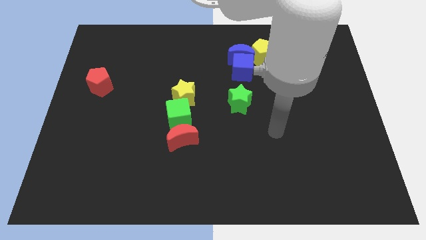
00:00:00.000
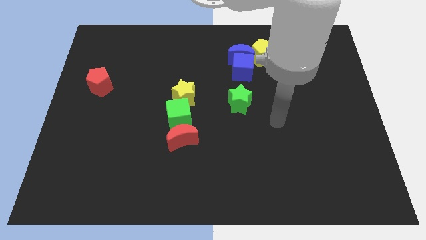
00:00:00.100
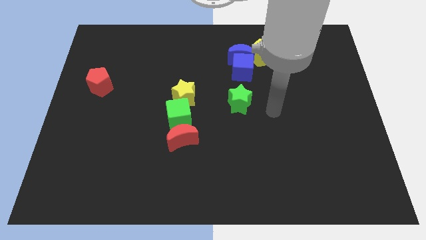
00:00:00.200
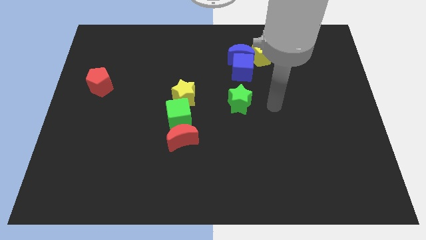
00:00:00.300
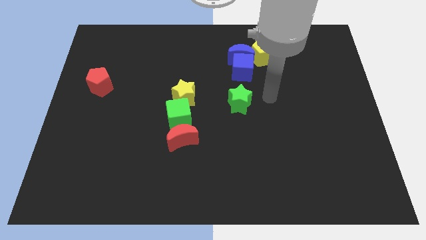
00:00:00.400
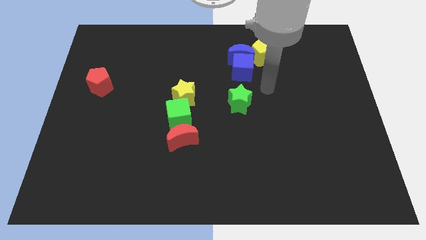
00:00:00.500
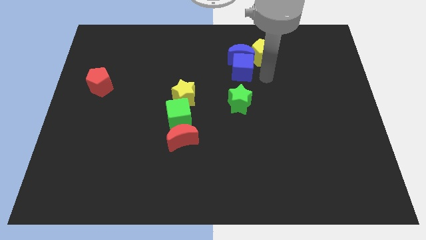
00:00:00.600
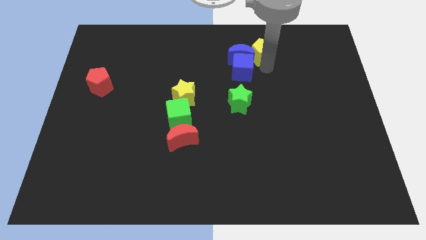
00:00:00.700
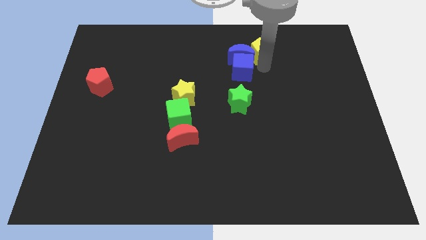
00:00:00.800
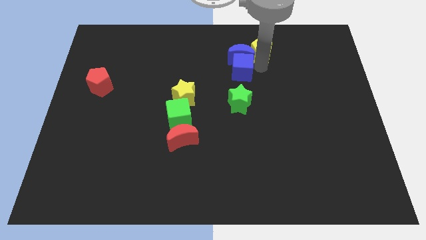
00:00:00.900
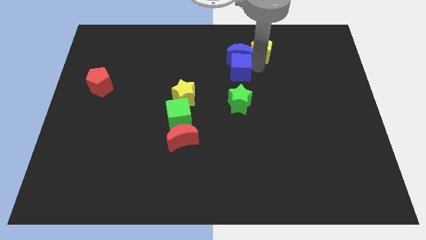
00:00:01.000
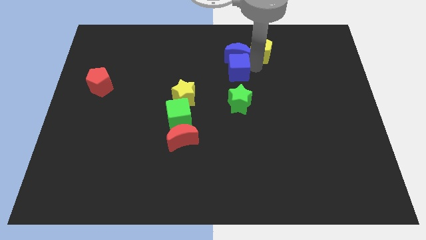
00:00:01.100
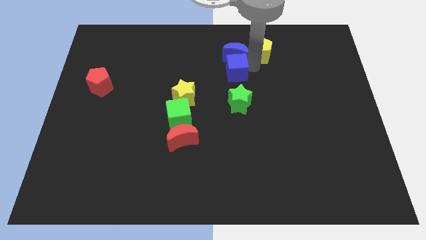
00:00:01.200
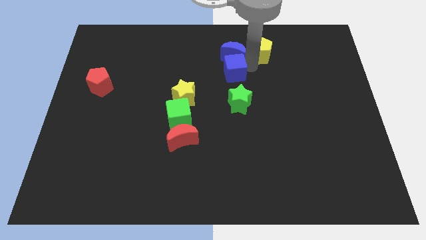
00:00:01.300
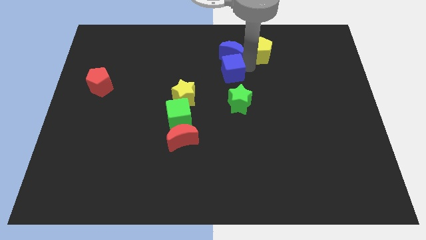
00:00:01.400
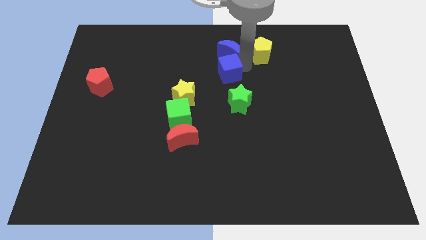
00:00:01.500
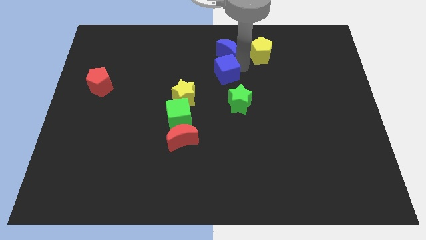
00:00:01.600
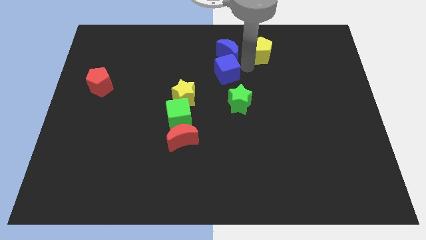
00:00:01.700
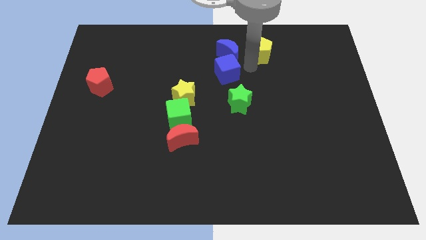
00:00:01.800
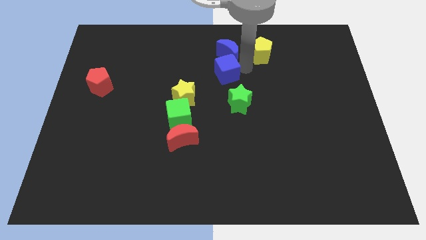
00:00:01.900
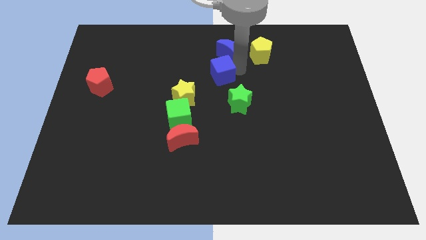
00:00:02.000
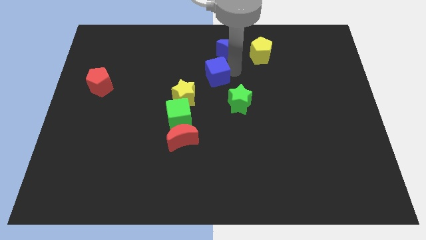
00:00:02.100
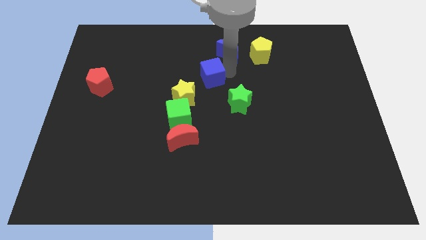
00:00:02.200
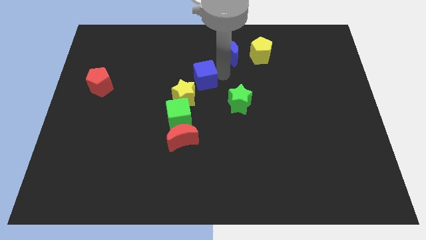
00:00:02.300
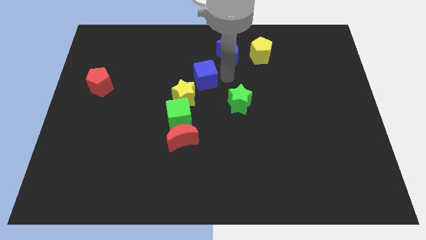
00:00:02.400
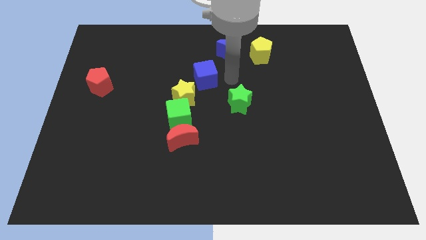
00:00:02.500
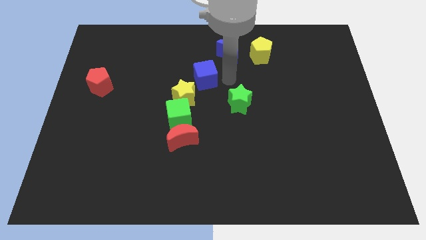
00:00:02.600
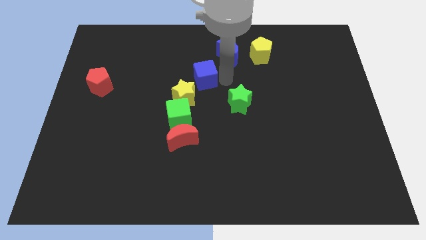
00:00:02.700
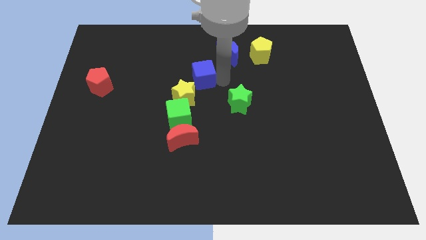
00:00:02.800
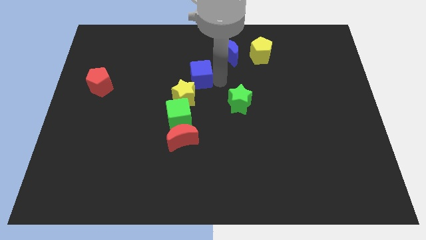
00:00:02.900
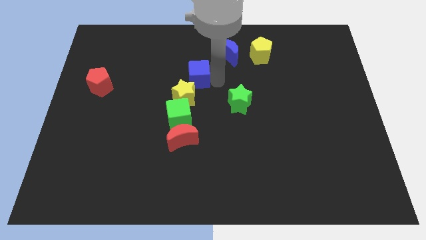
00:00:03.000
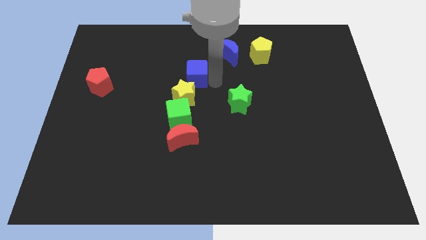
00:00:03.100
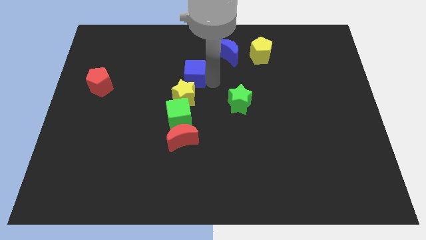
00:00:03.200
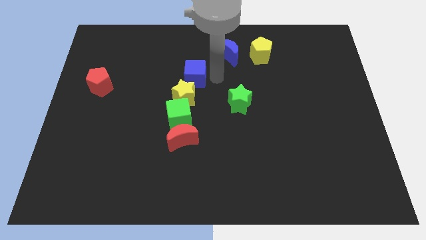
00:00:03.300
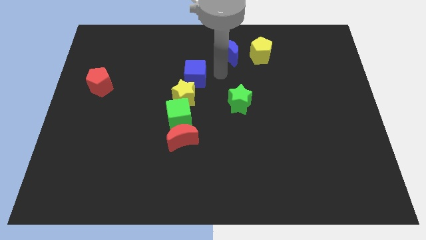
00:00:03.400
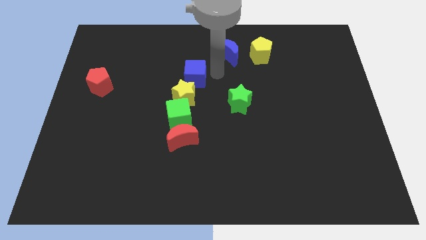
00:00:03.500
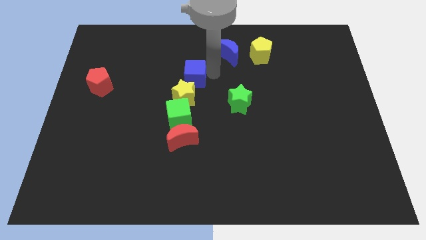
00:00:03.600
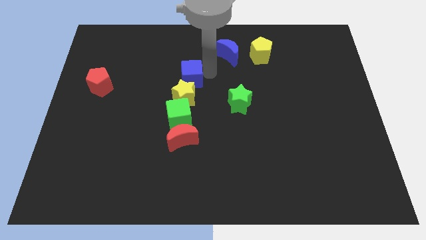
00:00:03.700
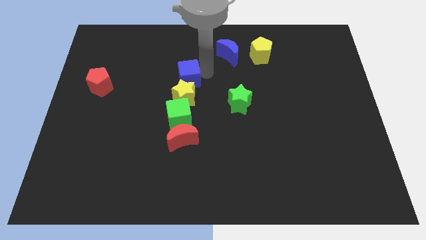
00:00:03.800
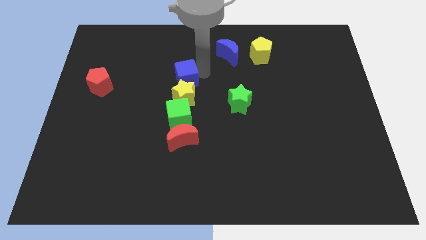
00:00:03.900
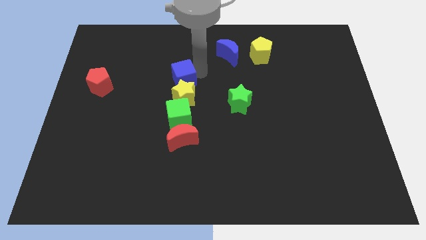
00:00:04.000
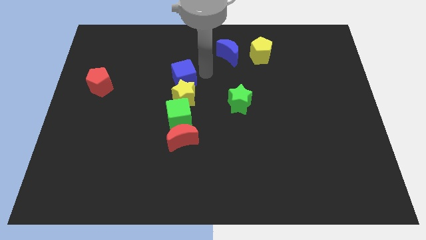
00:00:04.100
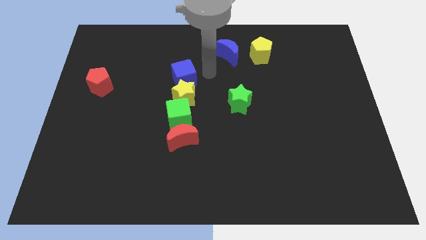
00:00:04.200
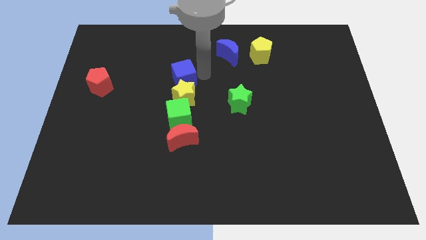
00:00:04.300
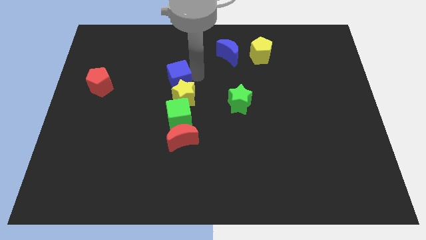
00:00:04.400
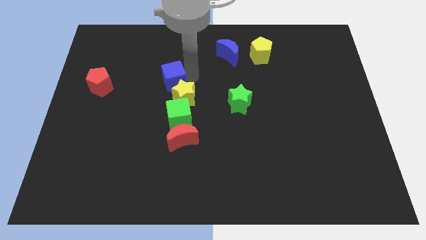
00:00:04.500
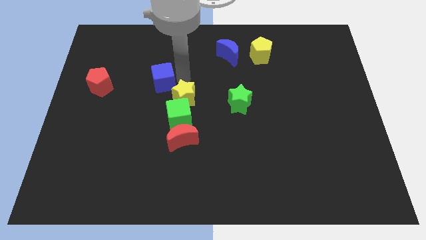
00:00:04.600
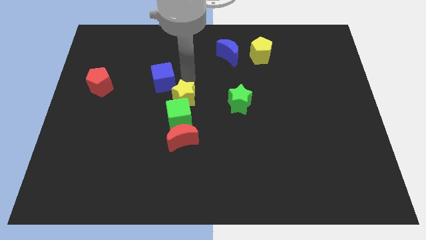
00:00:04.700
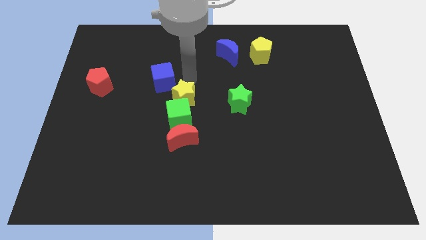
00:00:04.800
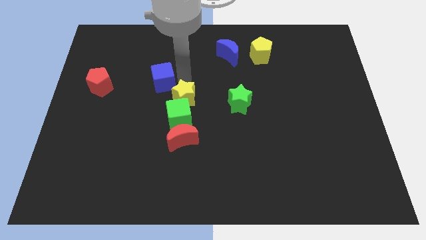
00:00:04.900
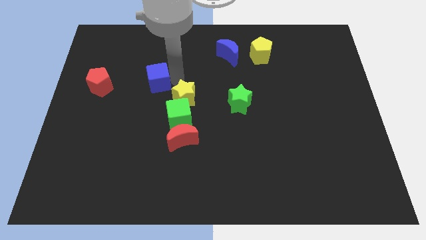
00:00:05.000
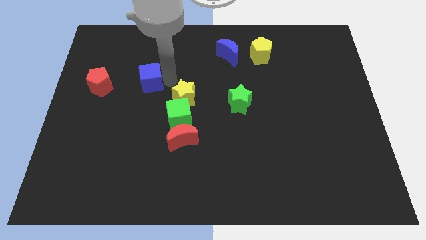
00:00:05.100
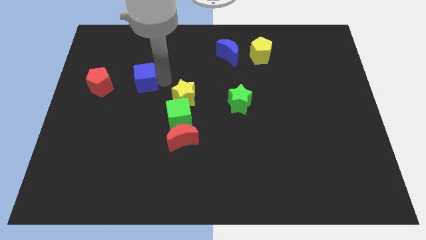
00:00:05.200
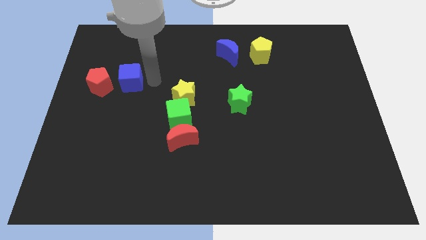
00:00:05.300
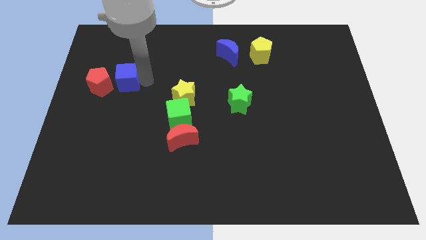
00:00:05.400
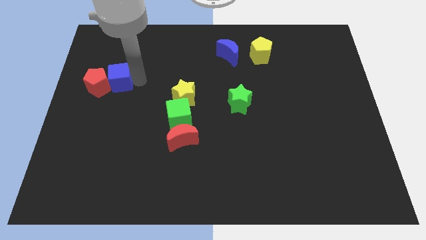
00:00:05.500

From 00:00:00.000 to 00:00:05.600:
move the blue cube towards the red pentagon

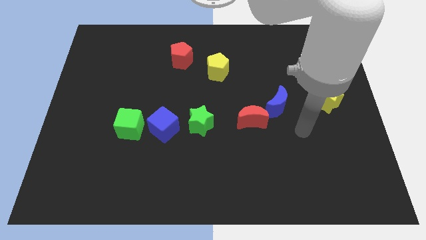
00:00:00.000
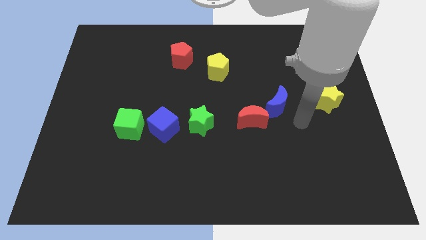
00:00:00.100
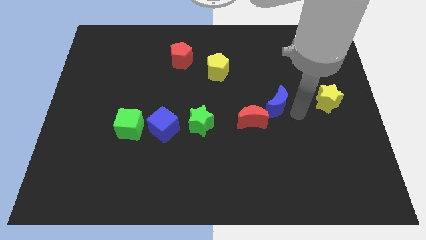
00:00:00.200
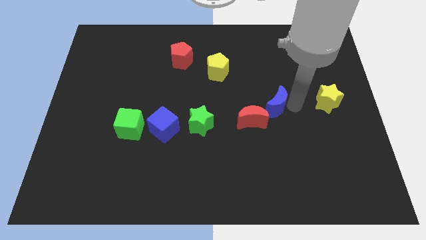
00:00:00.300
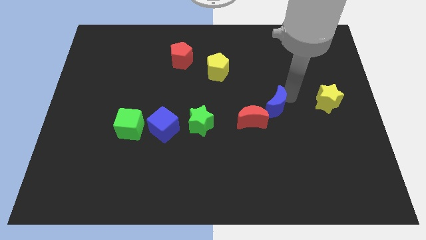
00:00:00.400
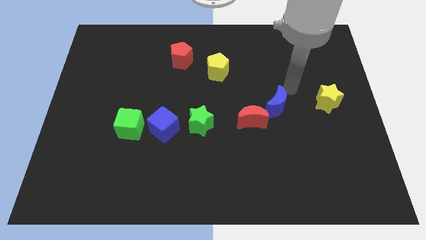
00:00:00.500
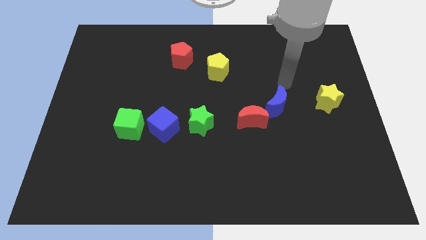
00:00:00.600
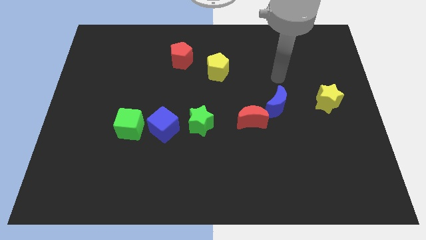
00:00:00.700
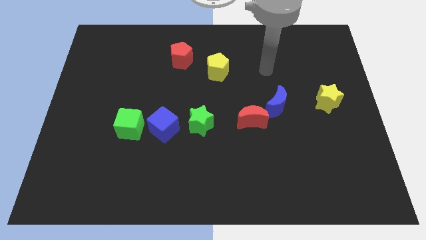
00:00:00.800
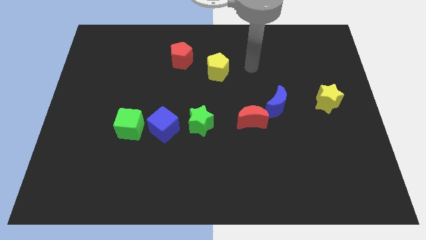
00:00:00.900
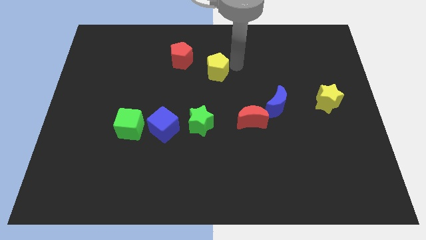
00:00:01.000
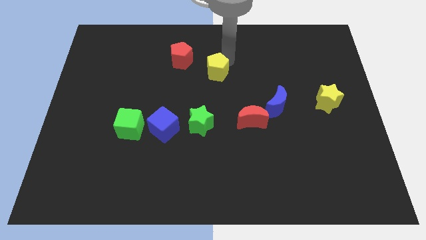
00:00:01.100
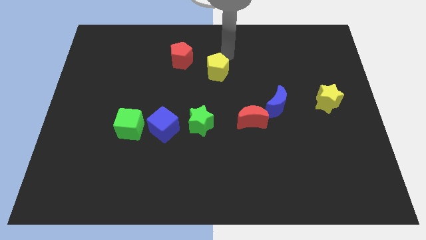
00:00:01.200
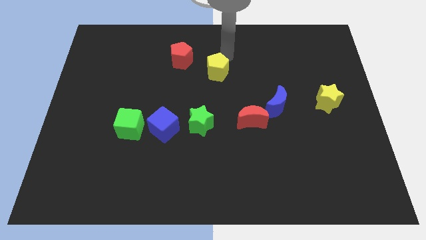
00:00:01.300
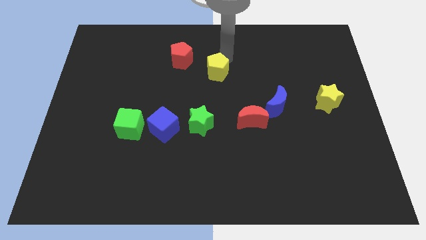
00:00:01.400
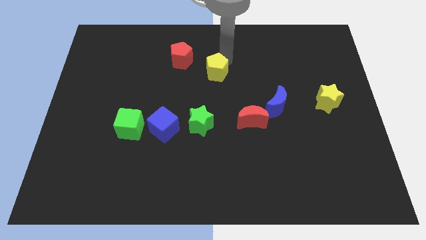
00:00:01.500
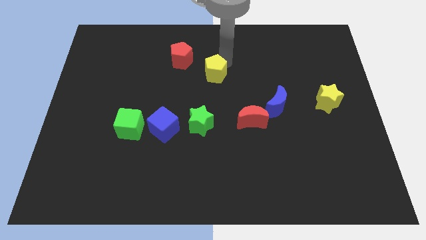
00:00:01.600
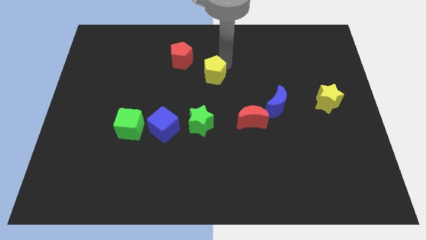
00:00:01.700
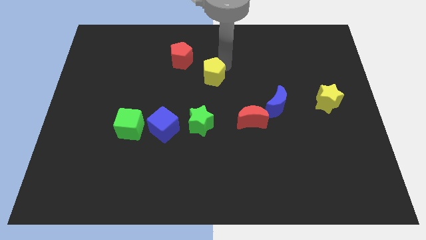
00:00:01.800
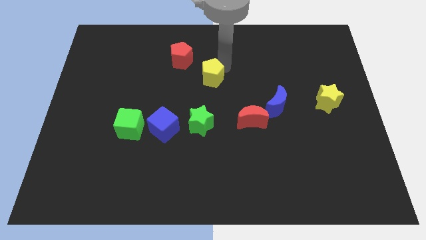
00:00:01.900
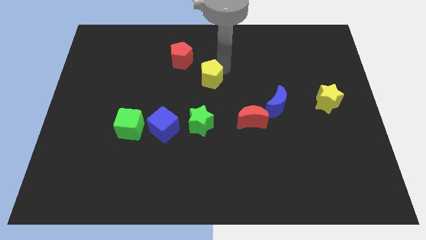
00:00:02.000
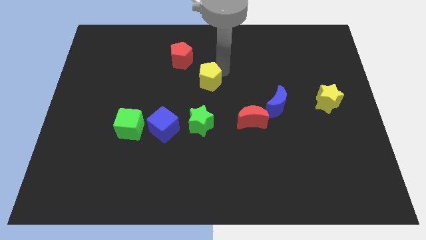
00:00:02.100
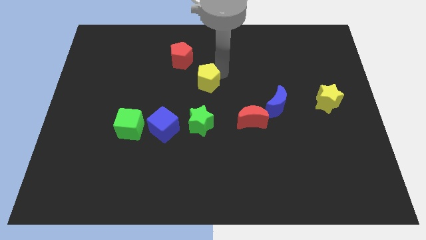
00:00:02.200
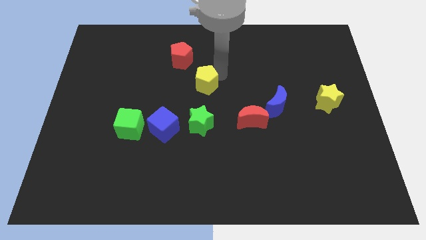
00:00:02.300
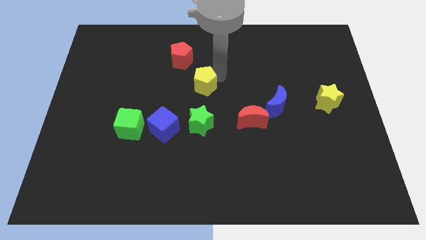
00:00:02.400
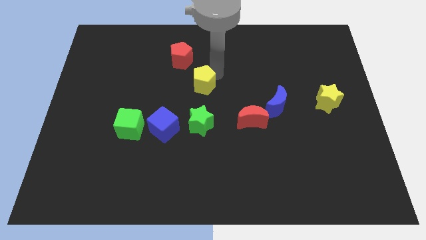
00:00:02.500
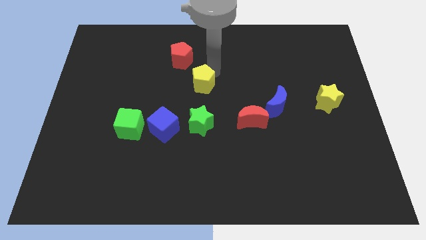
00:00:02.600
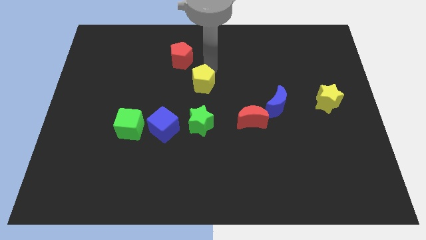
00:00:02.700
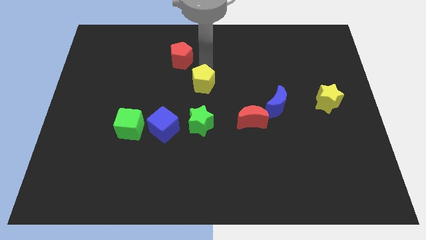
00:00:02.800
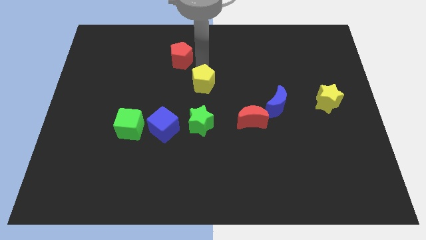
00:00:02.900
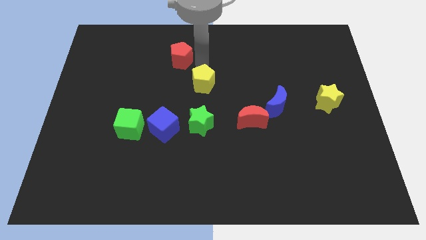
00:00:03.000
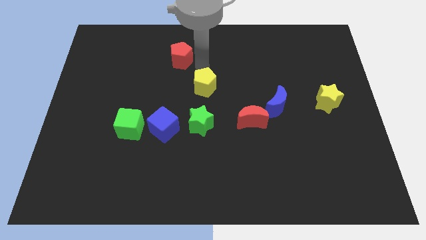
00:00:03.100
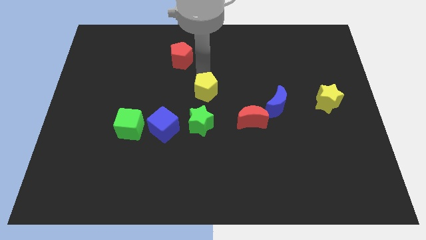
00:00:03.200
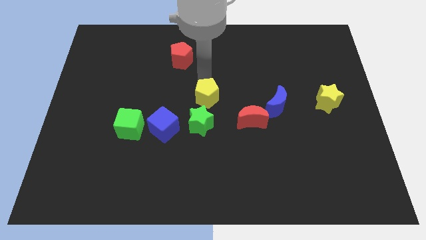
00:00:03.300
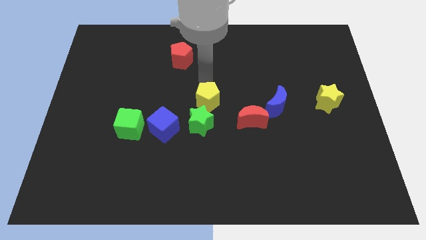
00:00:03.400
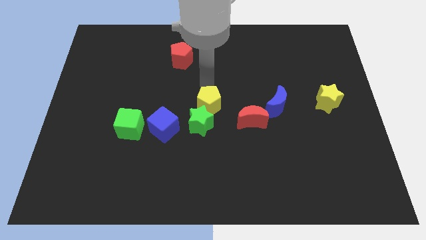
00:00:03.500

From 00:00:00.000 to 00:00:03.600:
move the yellow pentagon next to the green star
